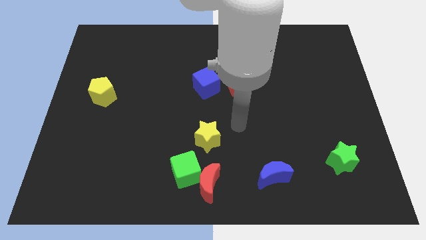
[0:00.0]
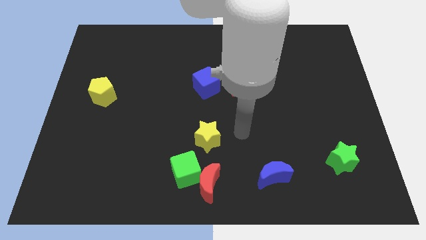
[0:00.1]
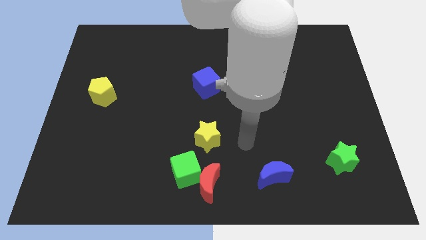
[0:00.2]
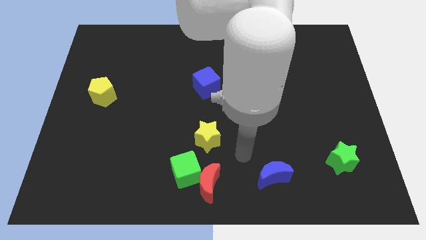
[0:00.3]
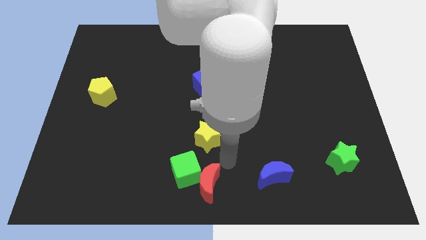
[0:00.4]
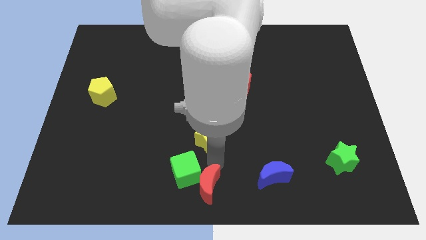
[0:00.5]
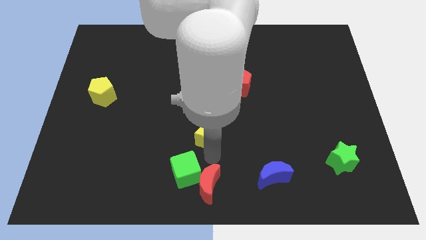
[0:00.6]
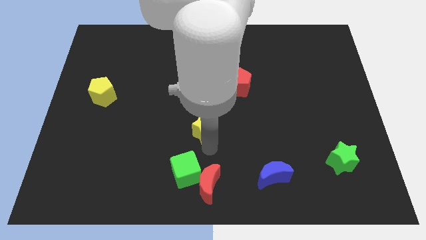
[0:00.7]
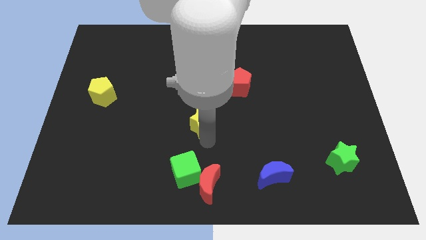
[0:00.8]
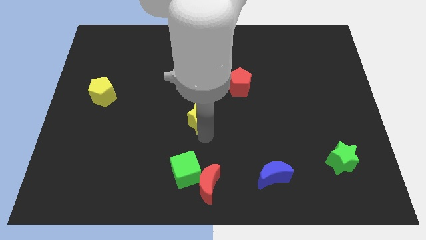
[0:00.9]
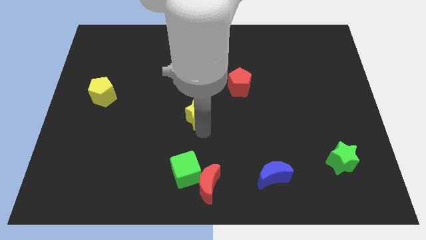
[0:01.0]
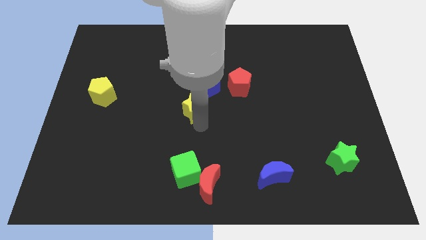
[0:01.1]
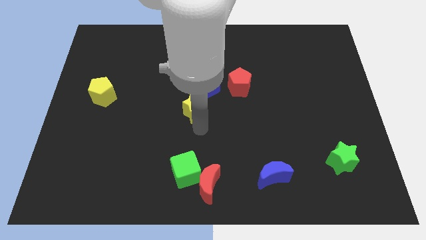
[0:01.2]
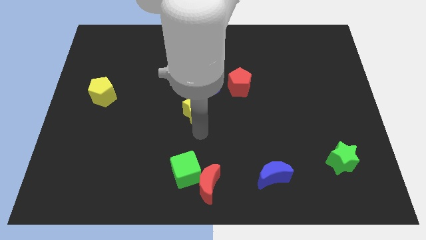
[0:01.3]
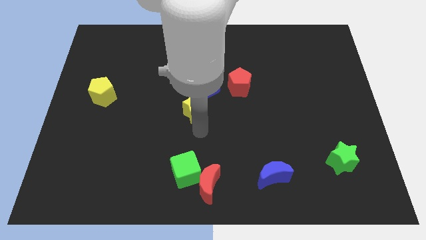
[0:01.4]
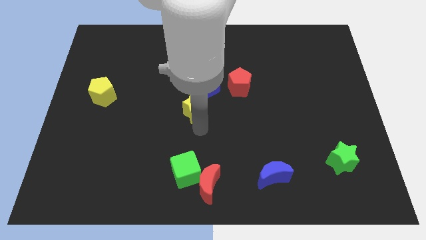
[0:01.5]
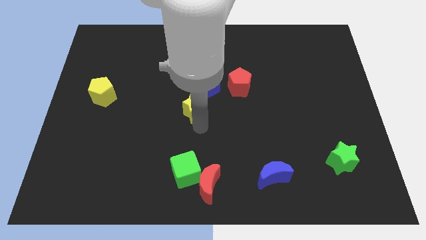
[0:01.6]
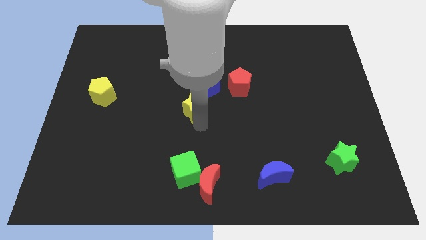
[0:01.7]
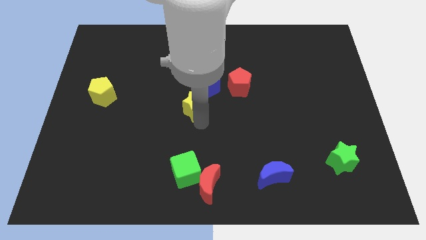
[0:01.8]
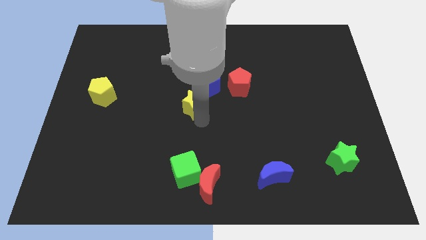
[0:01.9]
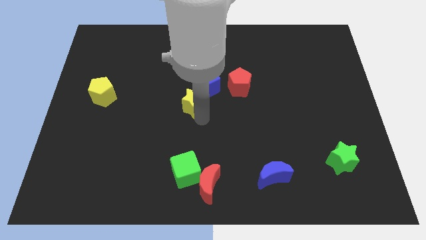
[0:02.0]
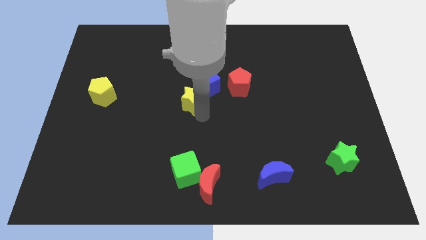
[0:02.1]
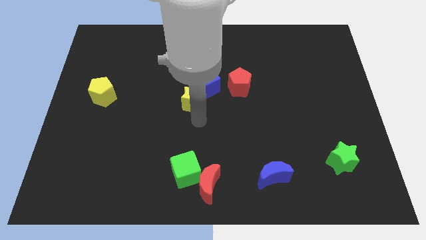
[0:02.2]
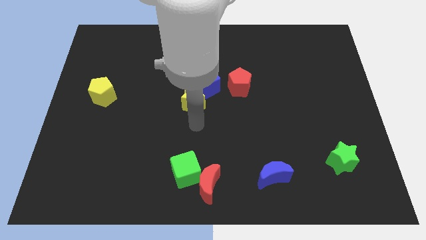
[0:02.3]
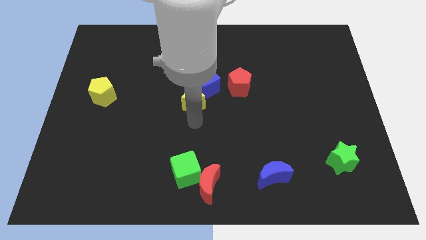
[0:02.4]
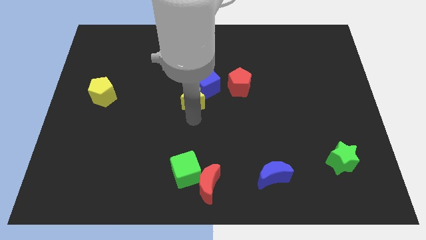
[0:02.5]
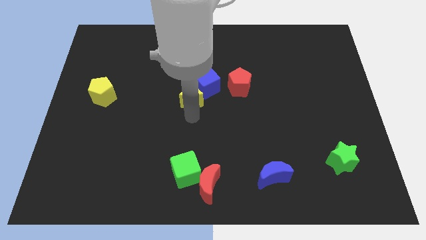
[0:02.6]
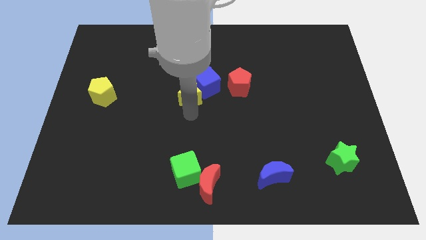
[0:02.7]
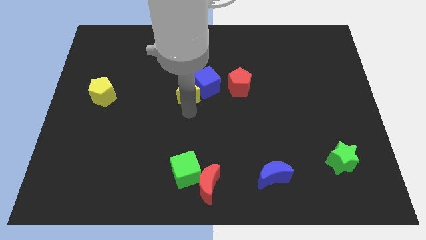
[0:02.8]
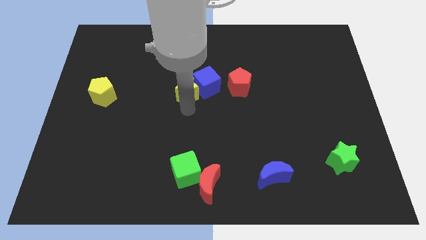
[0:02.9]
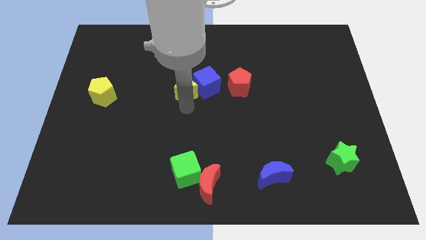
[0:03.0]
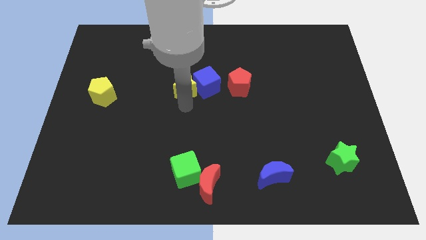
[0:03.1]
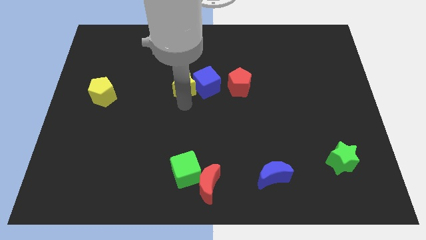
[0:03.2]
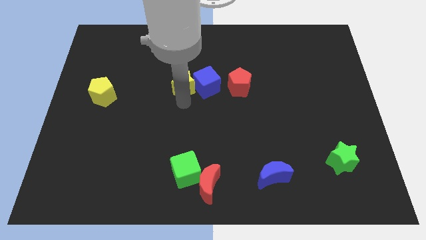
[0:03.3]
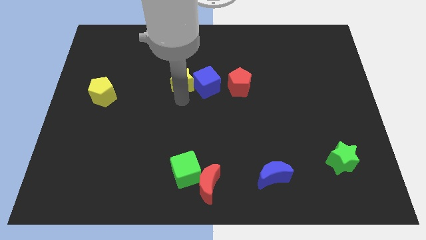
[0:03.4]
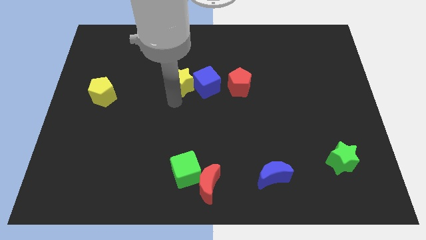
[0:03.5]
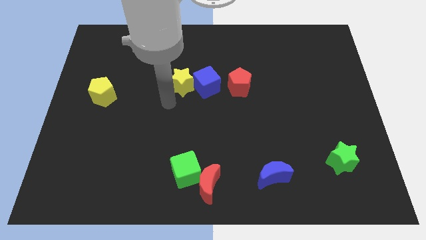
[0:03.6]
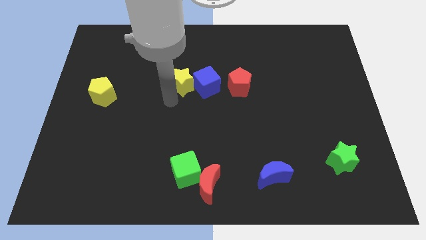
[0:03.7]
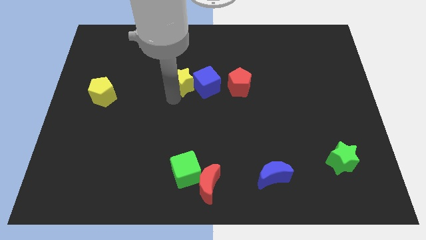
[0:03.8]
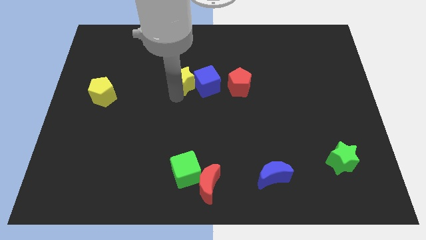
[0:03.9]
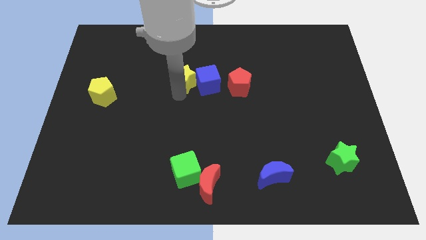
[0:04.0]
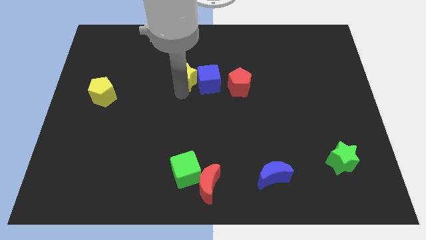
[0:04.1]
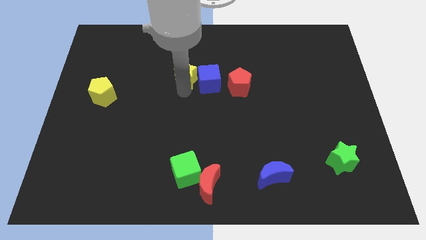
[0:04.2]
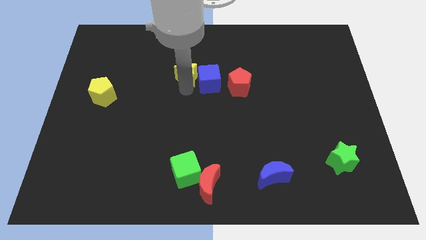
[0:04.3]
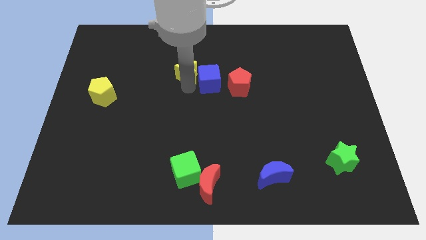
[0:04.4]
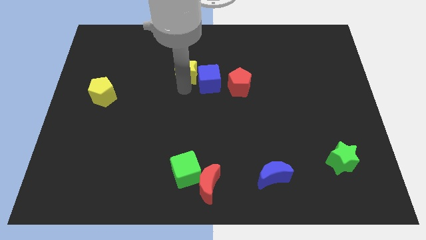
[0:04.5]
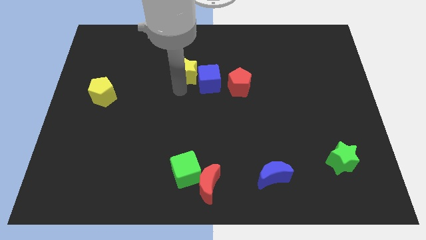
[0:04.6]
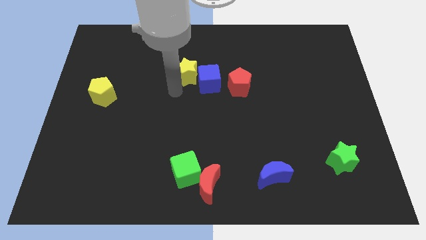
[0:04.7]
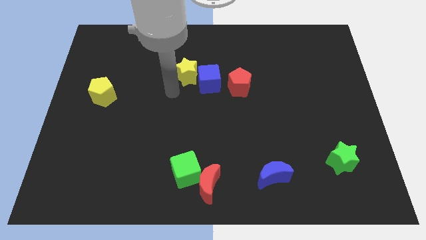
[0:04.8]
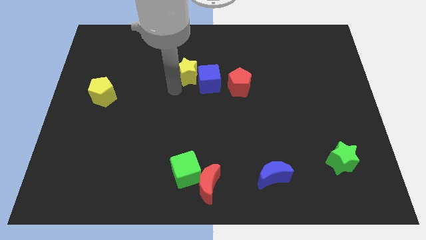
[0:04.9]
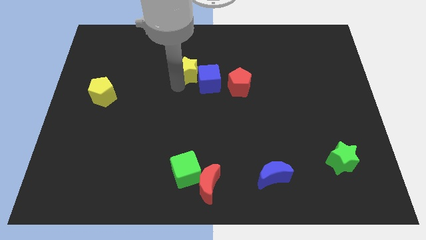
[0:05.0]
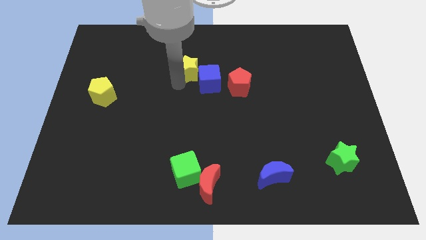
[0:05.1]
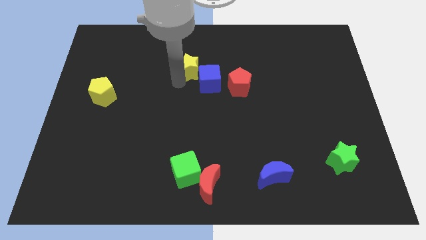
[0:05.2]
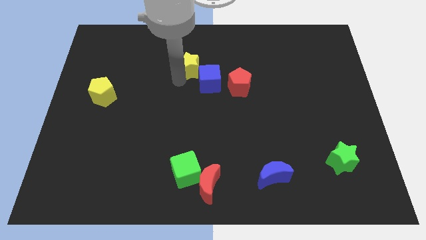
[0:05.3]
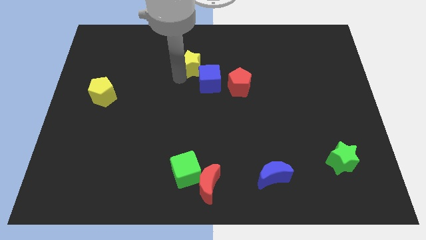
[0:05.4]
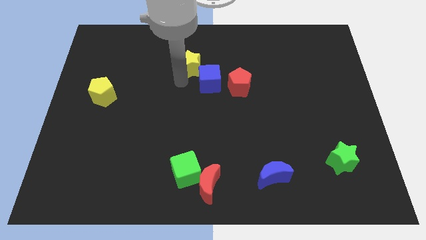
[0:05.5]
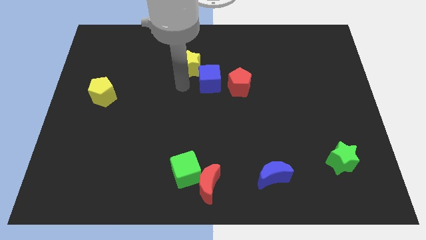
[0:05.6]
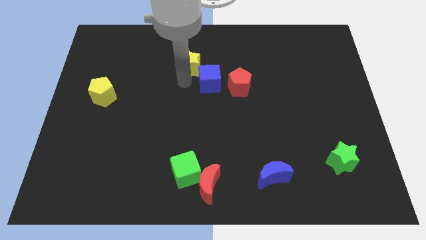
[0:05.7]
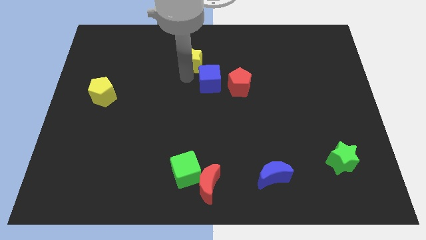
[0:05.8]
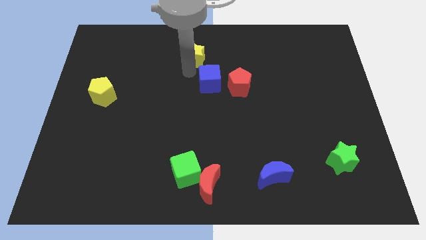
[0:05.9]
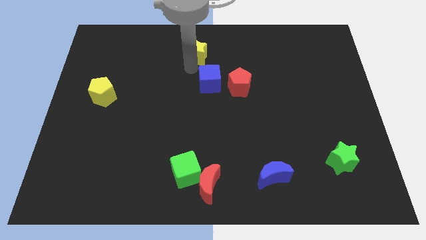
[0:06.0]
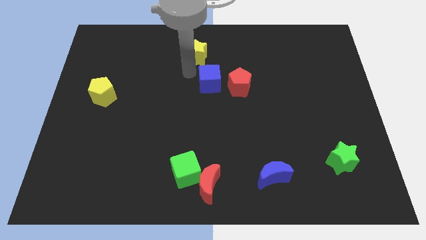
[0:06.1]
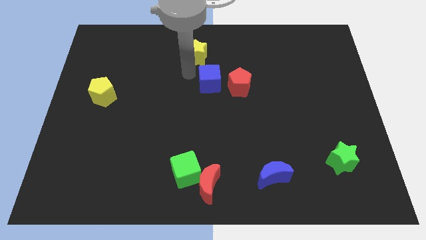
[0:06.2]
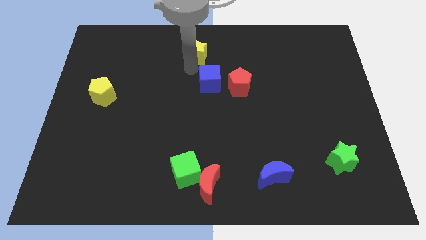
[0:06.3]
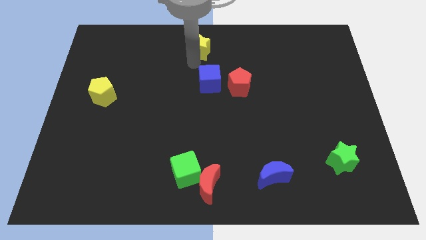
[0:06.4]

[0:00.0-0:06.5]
slide the yellow star to the top side
